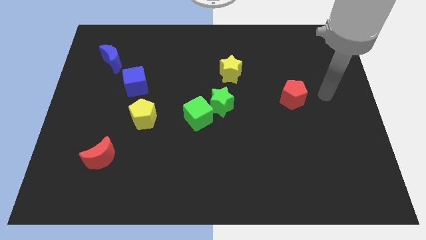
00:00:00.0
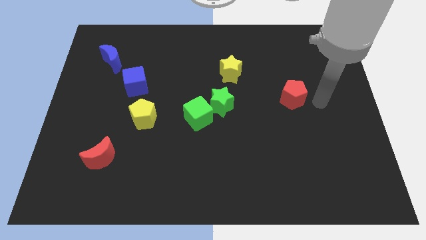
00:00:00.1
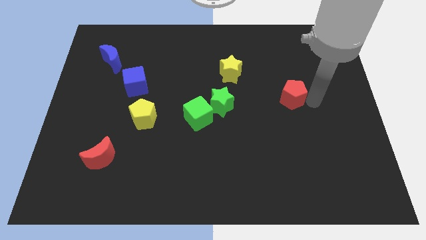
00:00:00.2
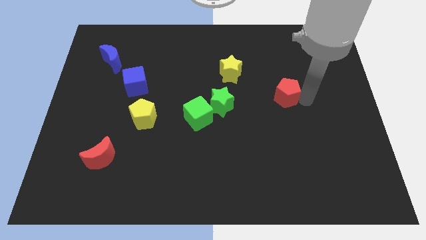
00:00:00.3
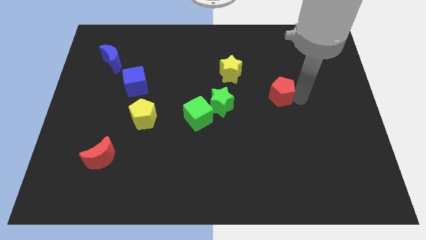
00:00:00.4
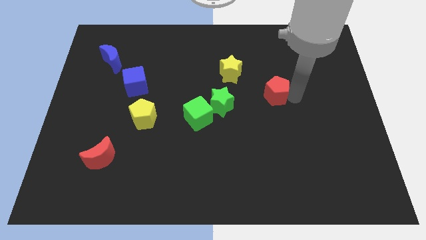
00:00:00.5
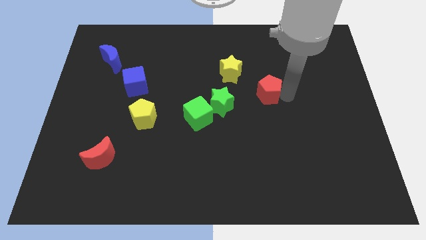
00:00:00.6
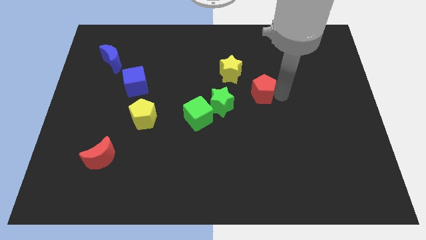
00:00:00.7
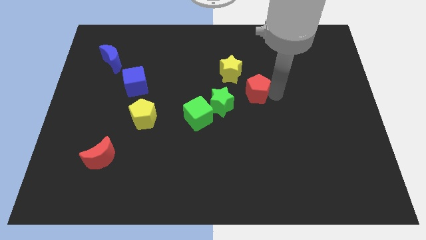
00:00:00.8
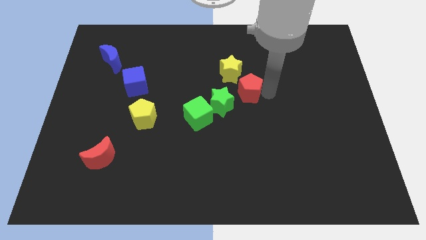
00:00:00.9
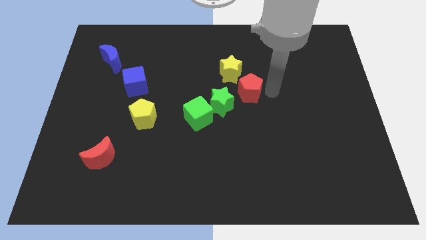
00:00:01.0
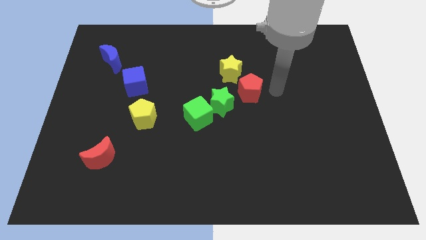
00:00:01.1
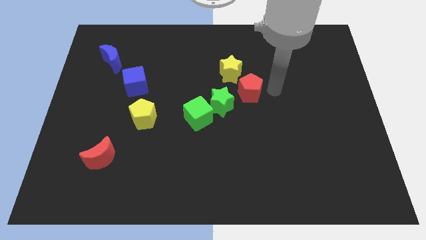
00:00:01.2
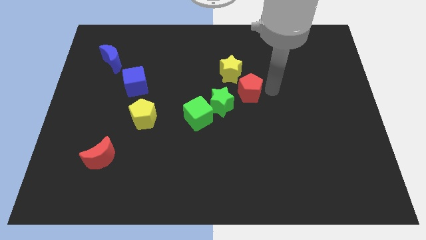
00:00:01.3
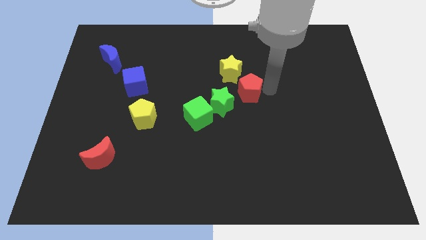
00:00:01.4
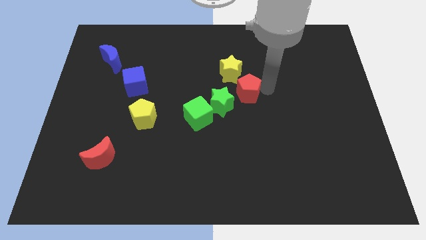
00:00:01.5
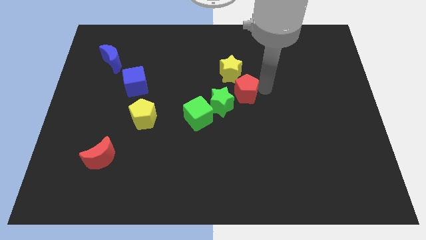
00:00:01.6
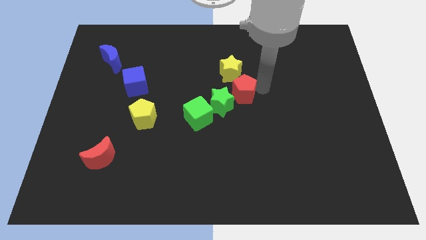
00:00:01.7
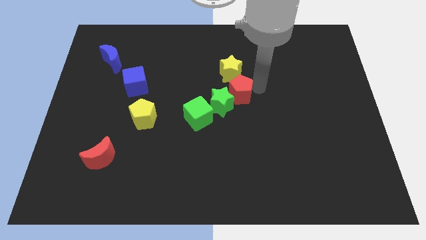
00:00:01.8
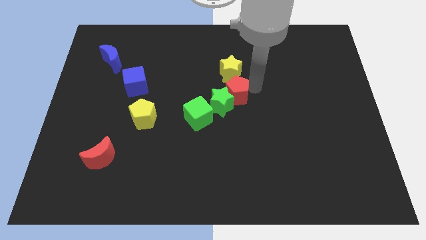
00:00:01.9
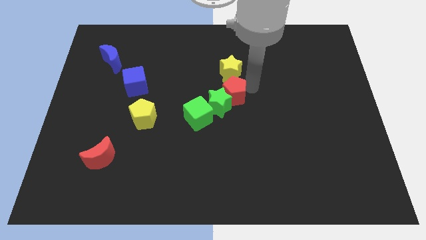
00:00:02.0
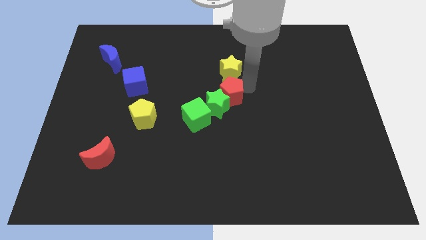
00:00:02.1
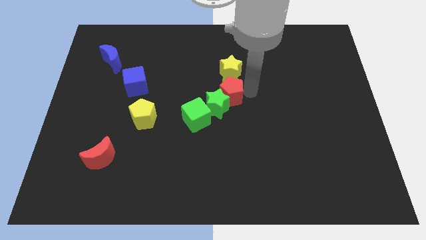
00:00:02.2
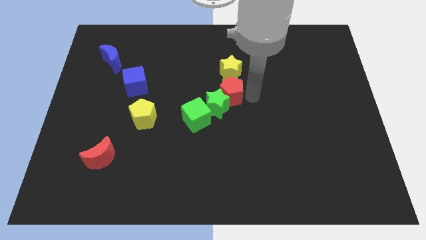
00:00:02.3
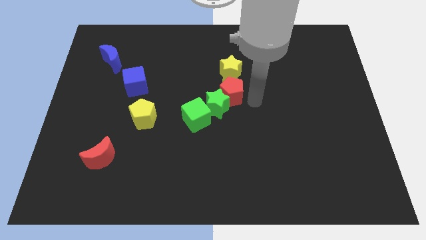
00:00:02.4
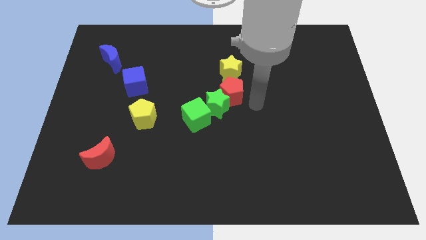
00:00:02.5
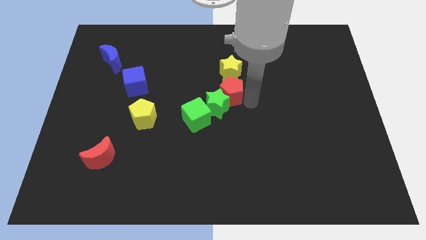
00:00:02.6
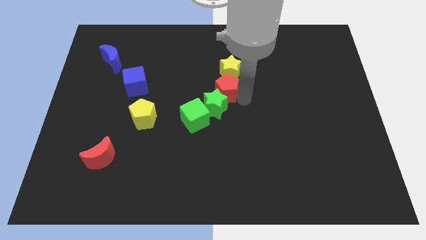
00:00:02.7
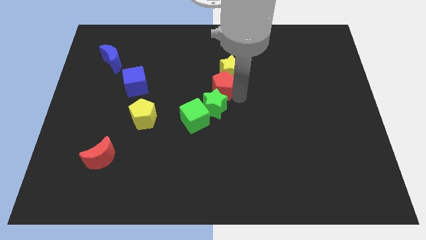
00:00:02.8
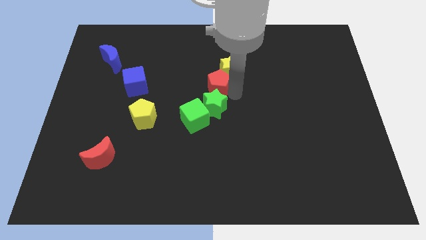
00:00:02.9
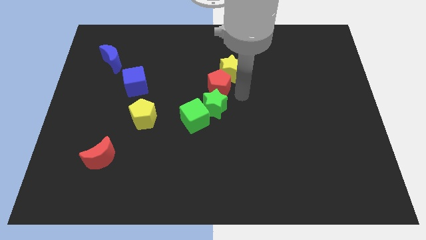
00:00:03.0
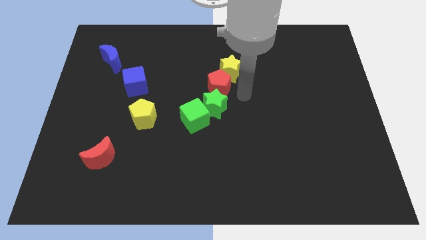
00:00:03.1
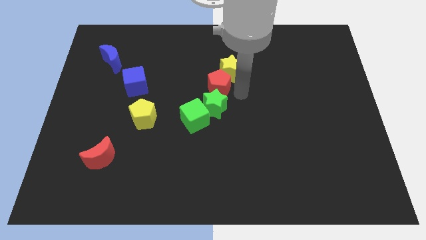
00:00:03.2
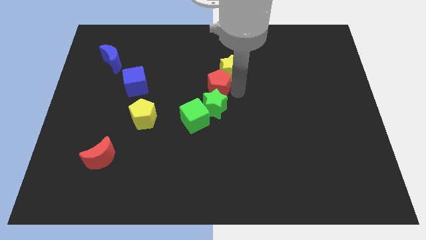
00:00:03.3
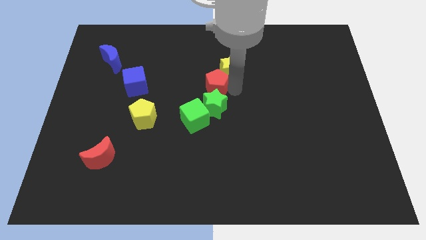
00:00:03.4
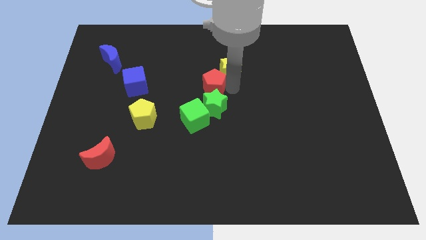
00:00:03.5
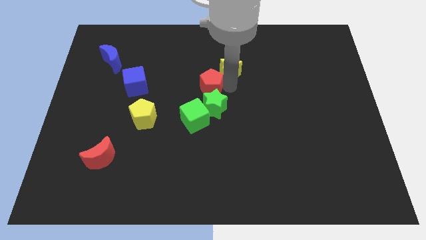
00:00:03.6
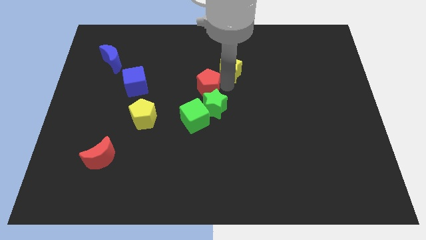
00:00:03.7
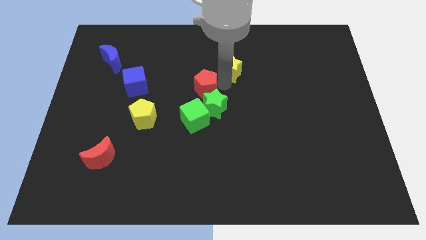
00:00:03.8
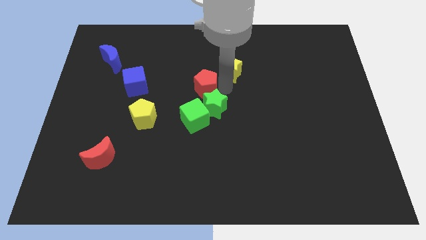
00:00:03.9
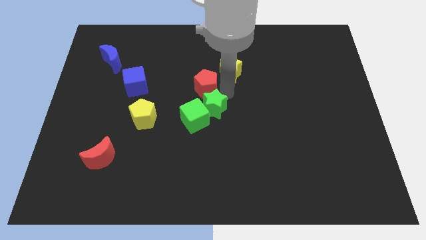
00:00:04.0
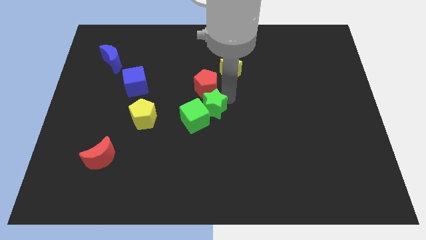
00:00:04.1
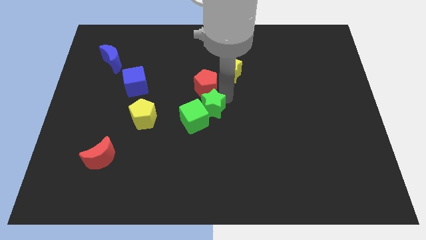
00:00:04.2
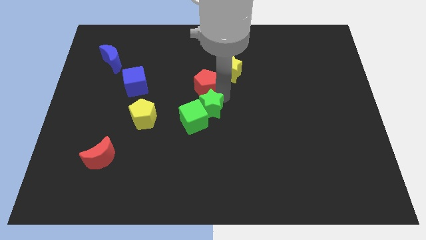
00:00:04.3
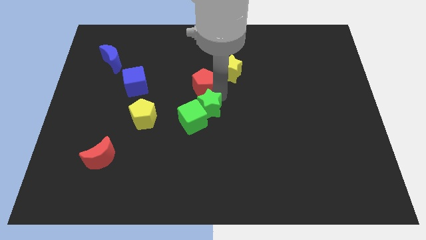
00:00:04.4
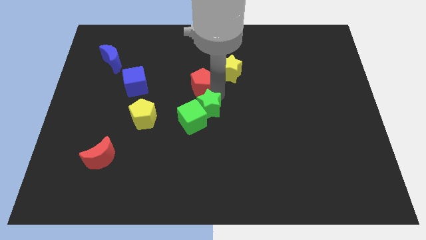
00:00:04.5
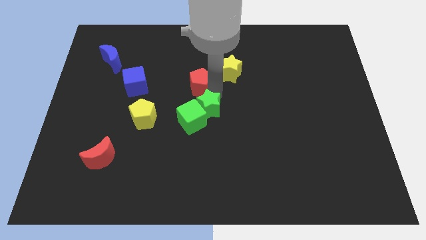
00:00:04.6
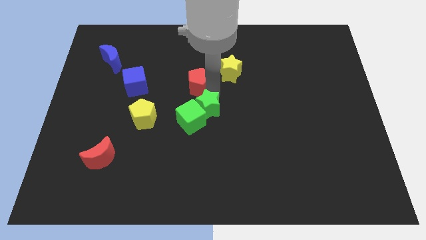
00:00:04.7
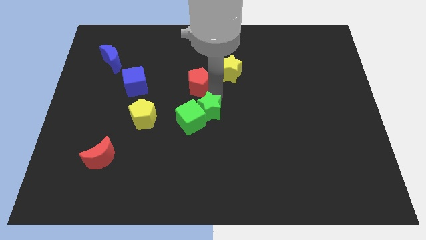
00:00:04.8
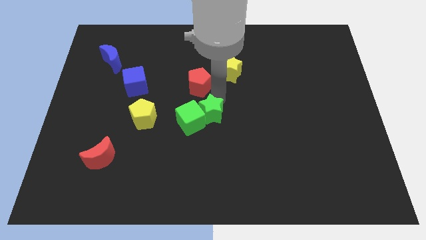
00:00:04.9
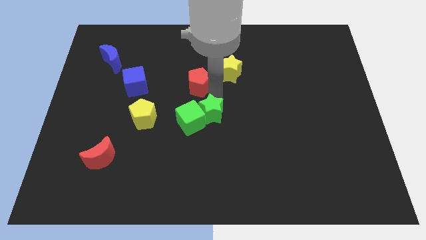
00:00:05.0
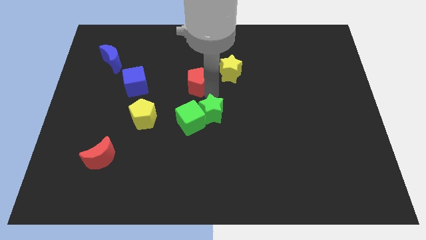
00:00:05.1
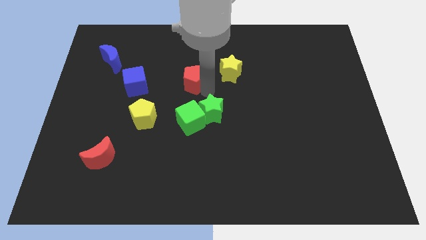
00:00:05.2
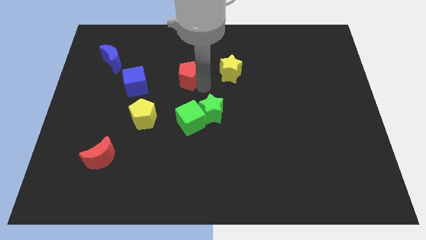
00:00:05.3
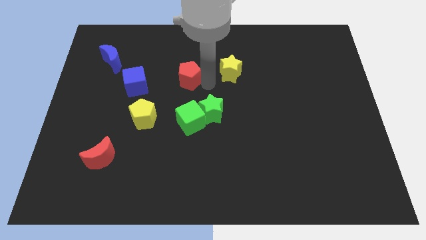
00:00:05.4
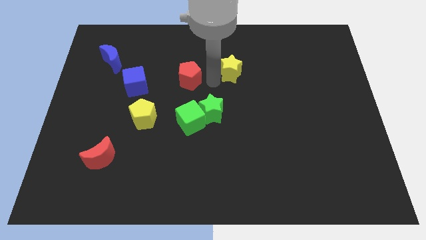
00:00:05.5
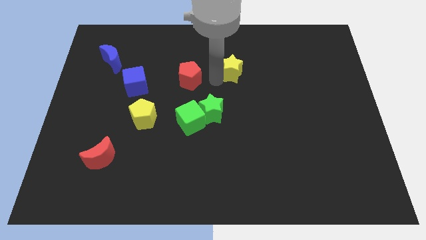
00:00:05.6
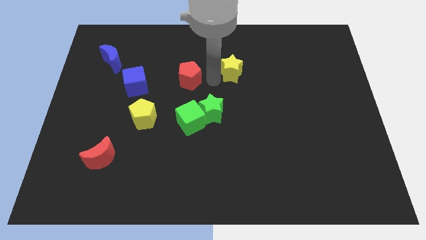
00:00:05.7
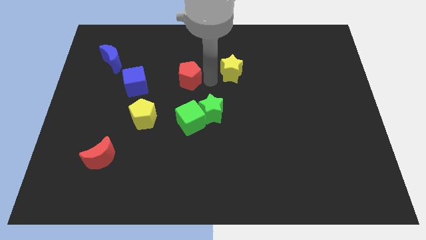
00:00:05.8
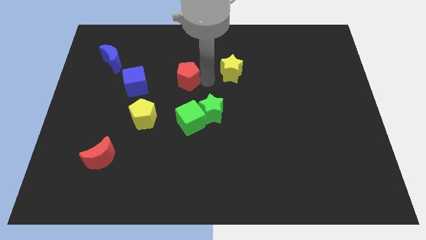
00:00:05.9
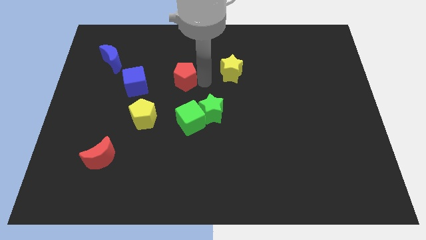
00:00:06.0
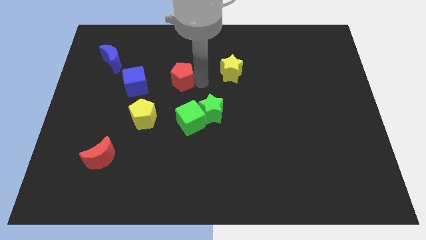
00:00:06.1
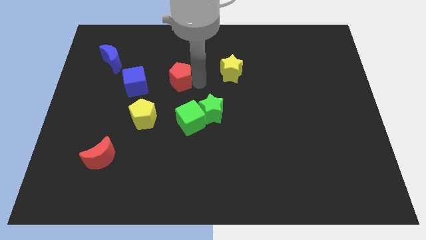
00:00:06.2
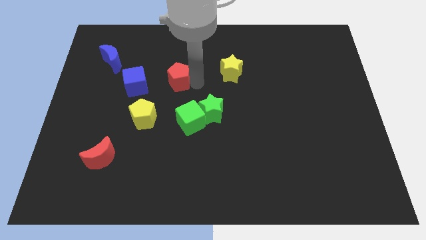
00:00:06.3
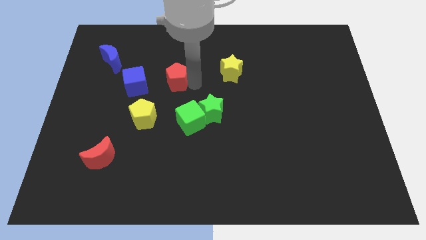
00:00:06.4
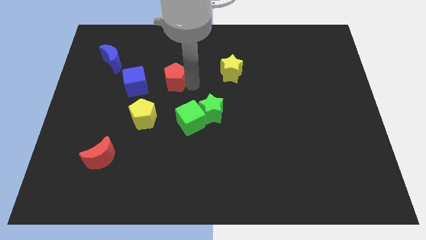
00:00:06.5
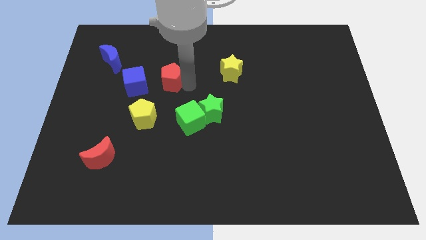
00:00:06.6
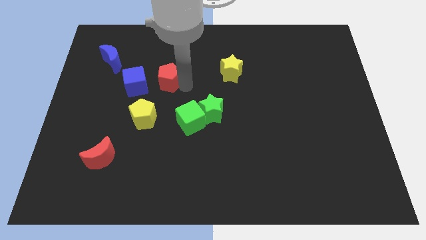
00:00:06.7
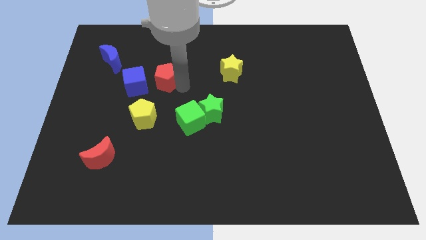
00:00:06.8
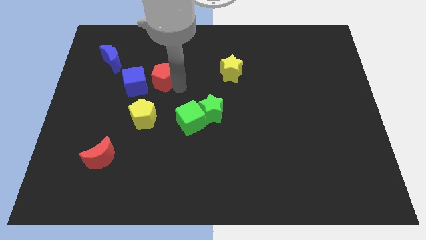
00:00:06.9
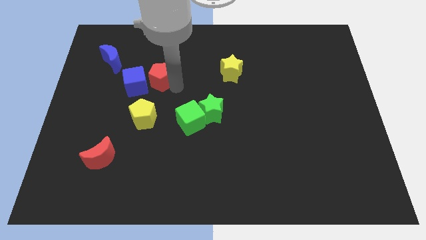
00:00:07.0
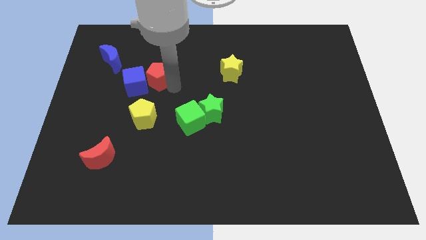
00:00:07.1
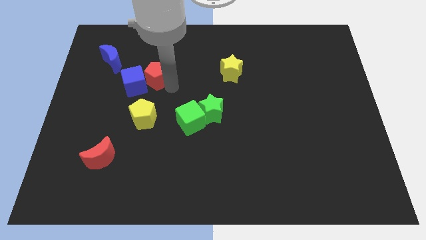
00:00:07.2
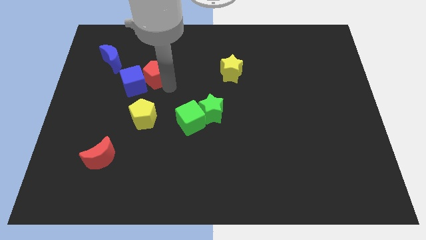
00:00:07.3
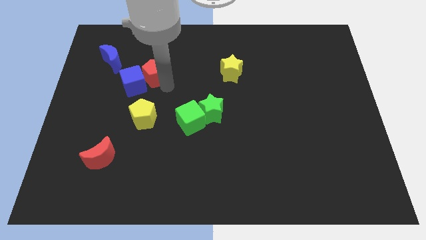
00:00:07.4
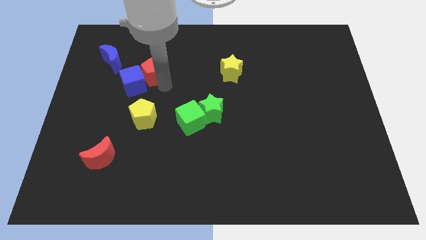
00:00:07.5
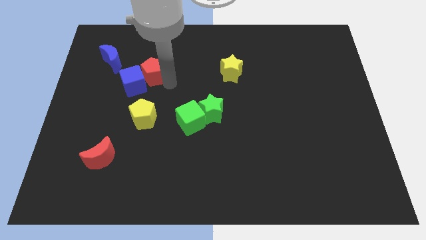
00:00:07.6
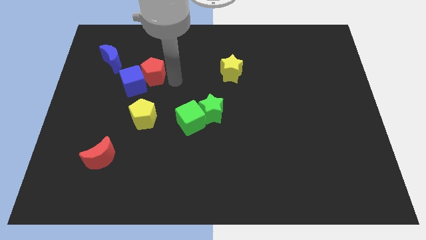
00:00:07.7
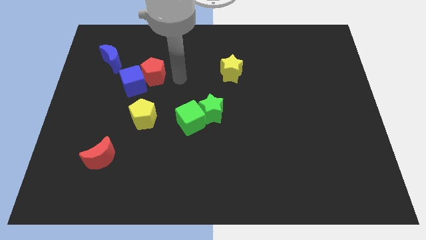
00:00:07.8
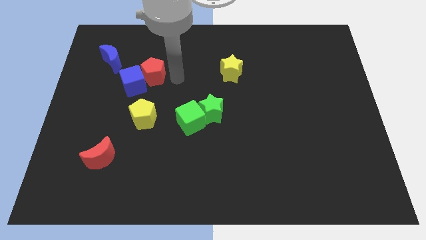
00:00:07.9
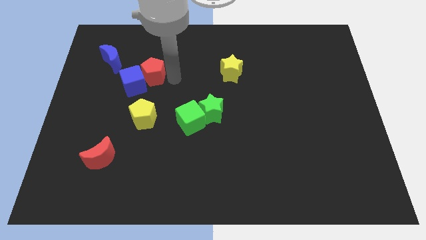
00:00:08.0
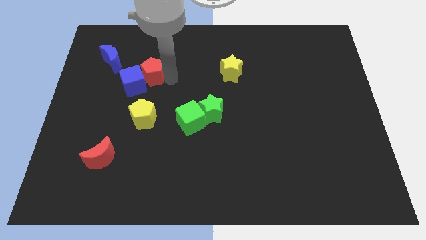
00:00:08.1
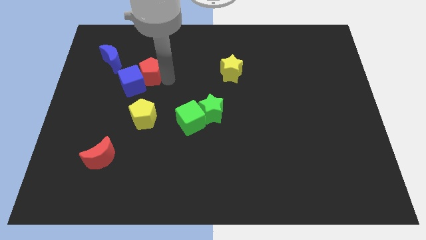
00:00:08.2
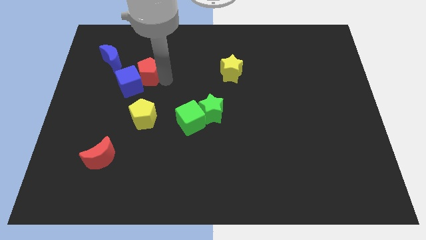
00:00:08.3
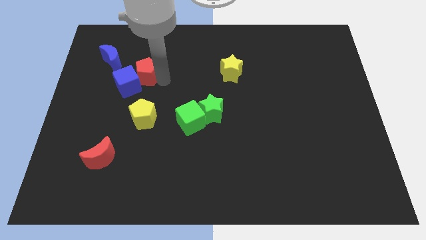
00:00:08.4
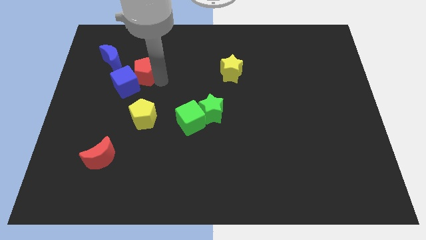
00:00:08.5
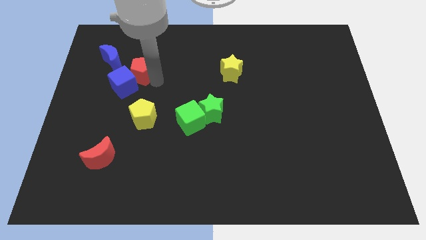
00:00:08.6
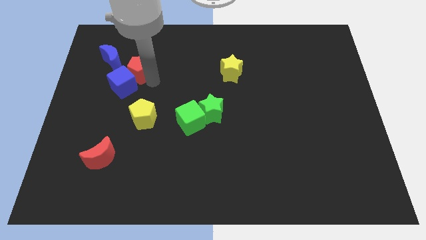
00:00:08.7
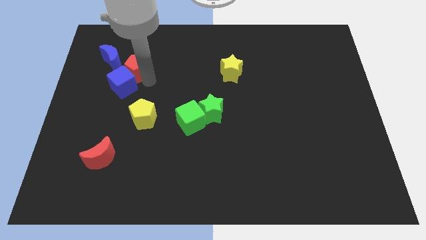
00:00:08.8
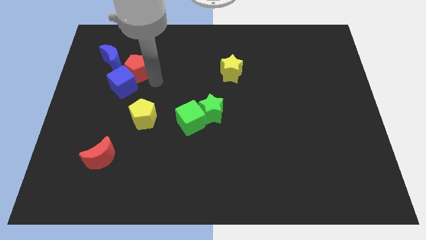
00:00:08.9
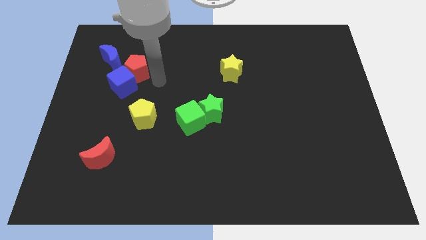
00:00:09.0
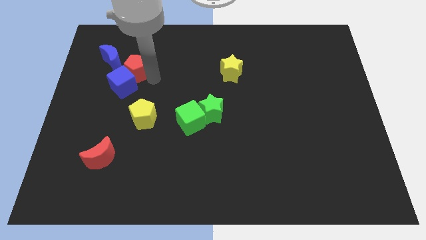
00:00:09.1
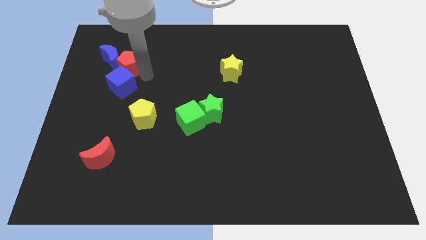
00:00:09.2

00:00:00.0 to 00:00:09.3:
push the red pentagon towards the blue moon
